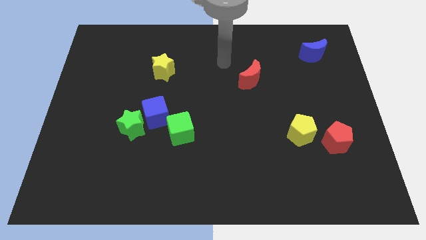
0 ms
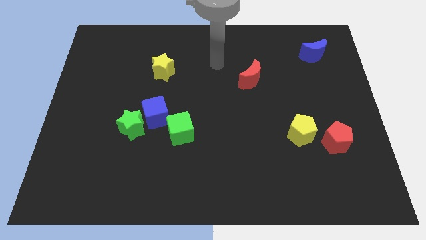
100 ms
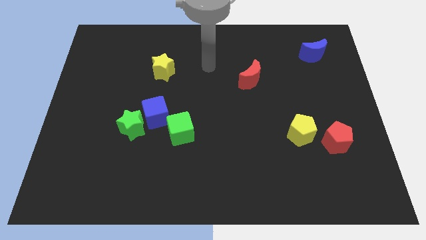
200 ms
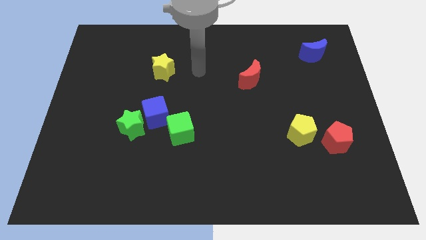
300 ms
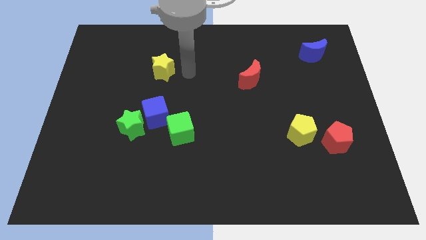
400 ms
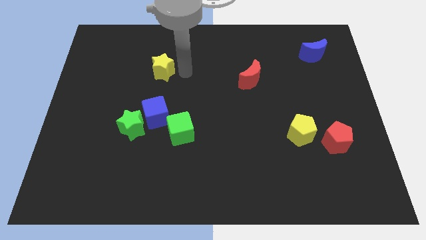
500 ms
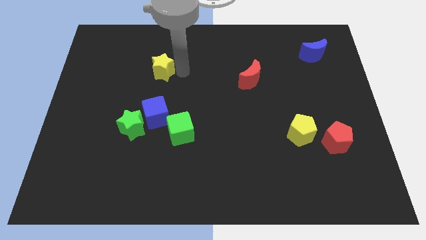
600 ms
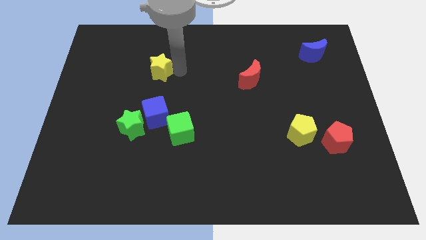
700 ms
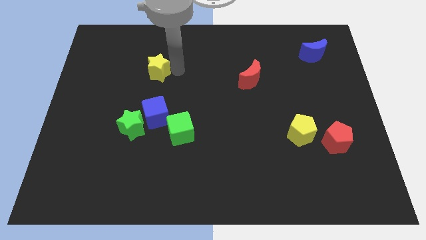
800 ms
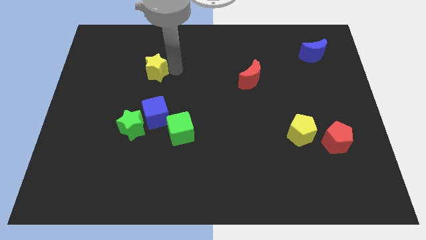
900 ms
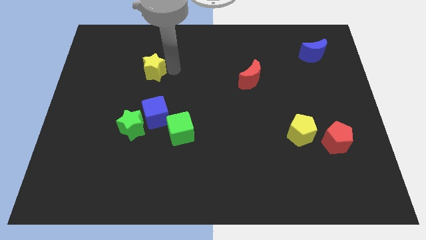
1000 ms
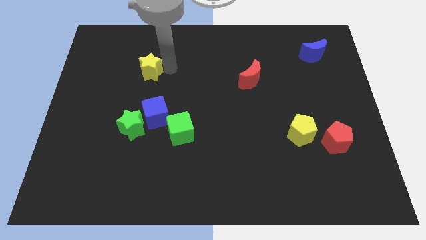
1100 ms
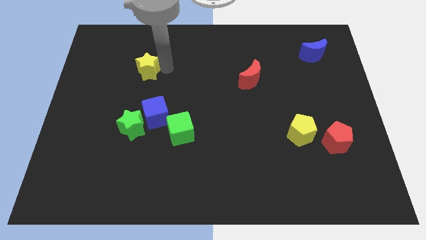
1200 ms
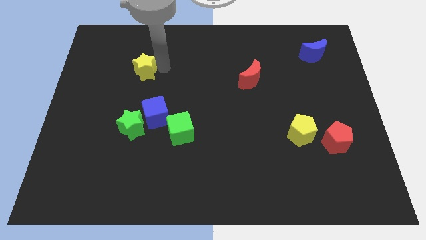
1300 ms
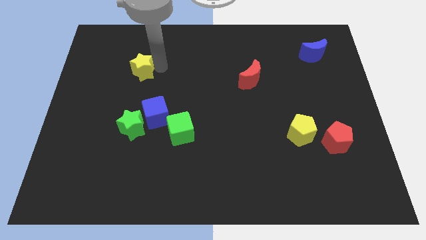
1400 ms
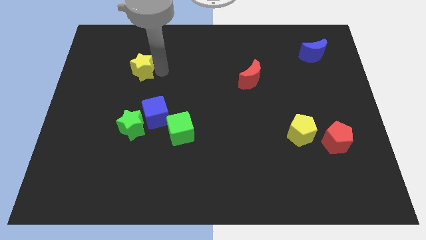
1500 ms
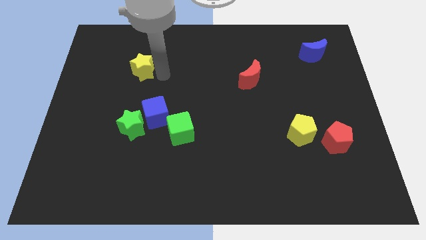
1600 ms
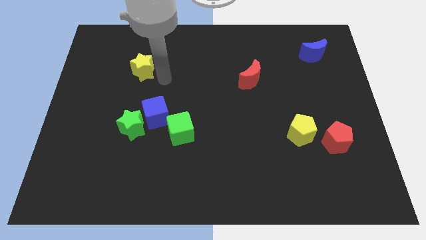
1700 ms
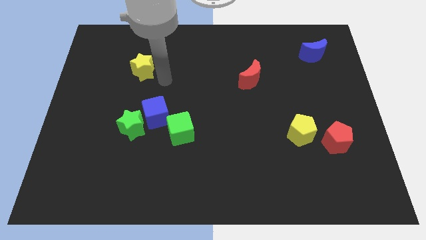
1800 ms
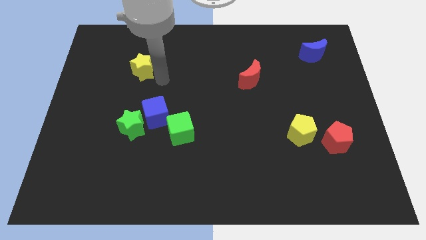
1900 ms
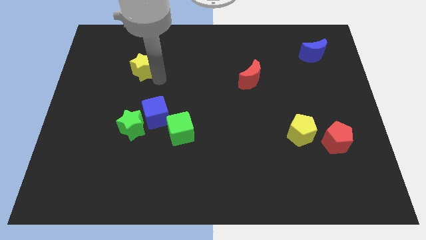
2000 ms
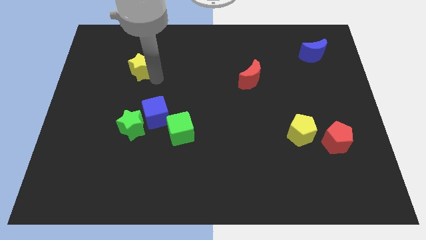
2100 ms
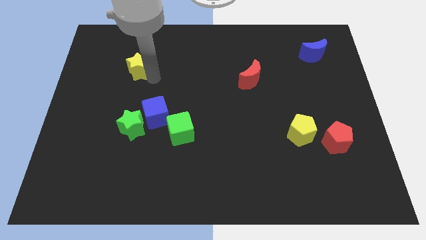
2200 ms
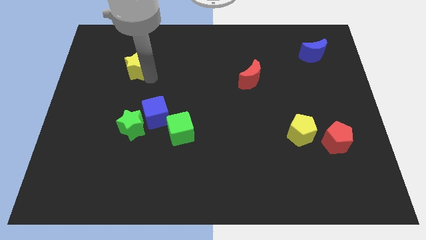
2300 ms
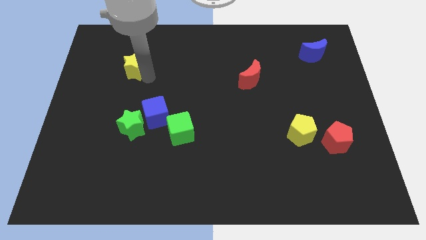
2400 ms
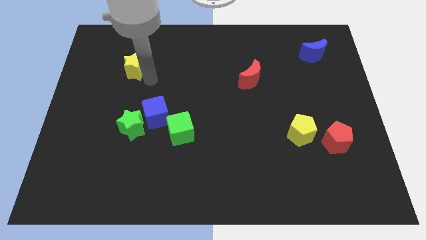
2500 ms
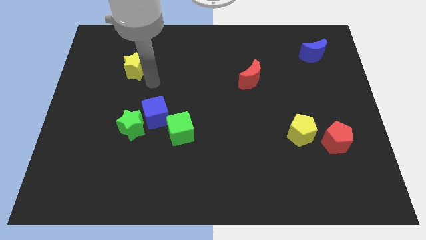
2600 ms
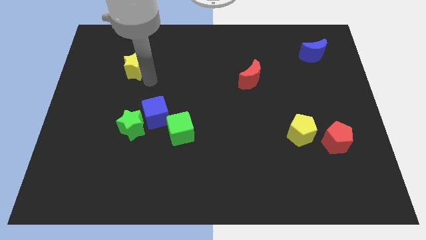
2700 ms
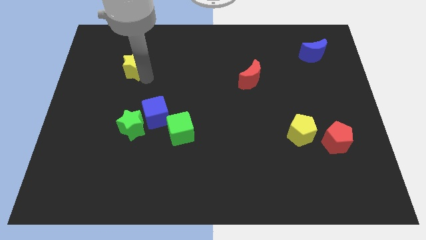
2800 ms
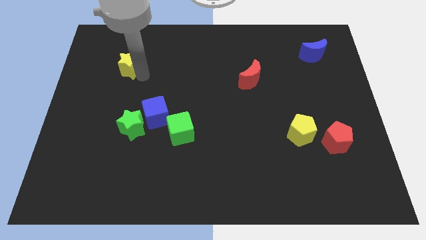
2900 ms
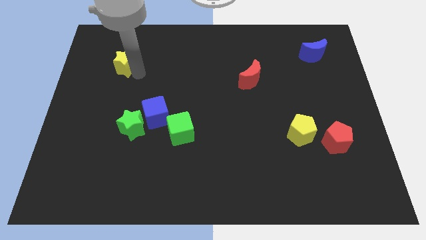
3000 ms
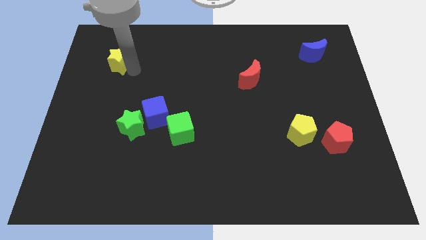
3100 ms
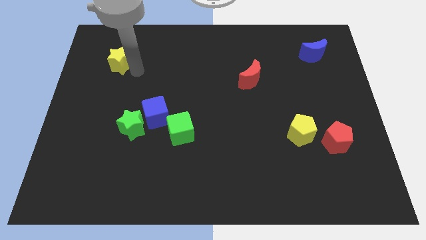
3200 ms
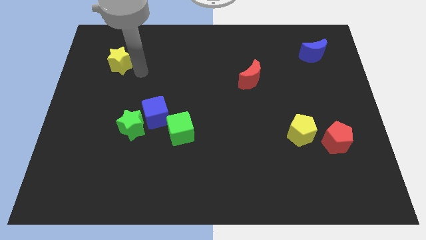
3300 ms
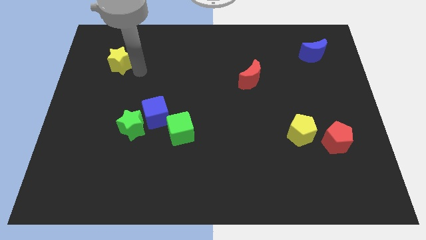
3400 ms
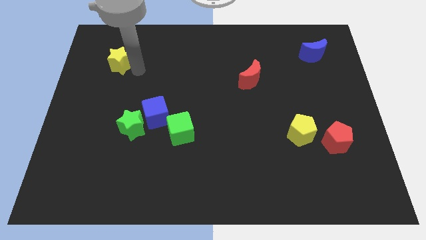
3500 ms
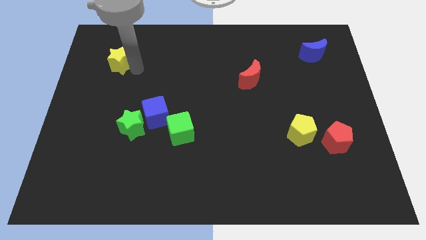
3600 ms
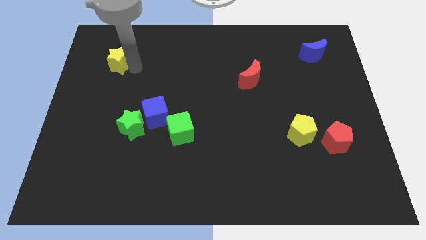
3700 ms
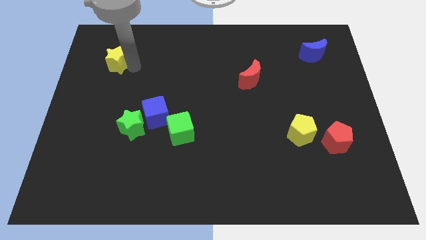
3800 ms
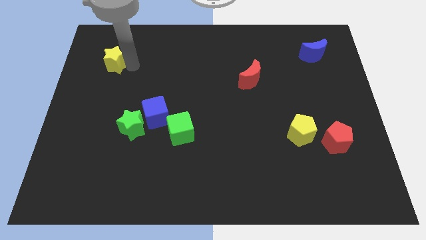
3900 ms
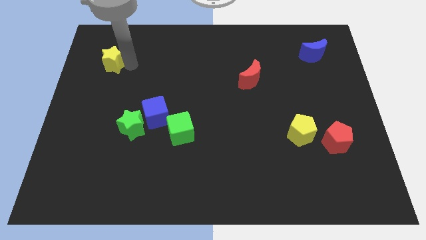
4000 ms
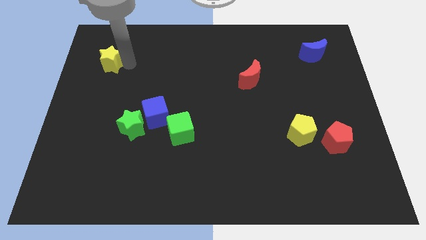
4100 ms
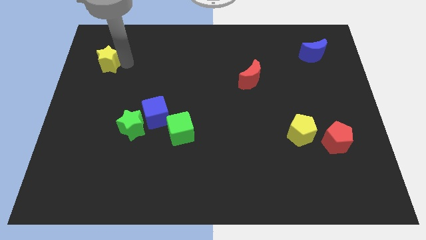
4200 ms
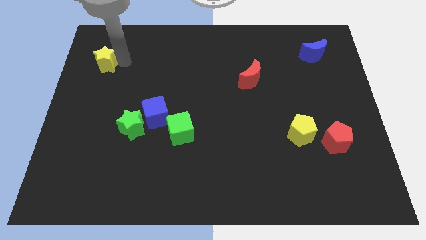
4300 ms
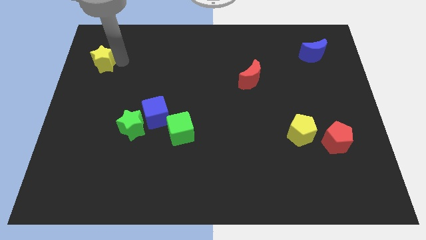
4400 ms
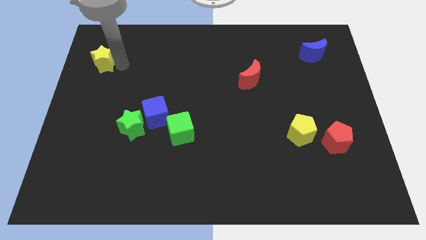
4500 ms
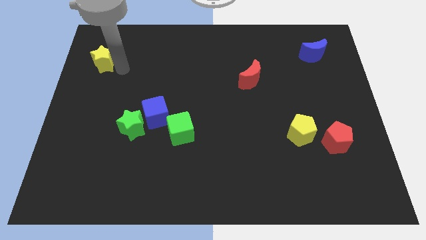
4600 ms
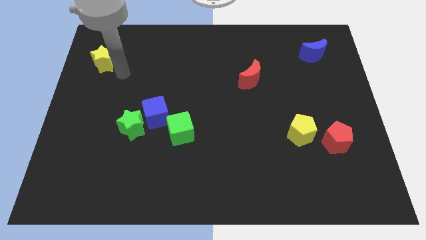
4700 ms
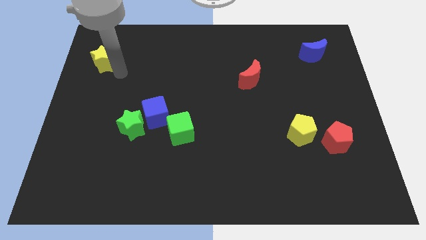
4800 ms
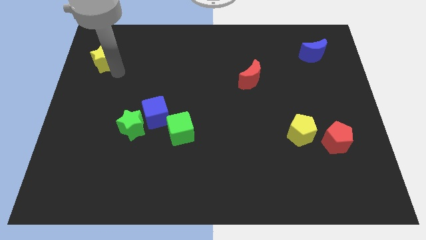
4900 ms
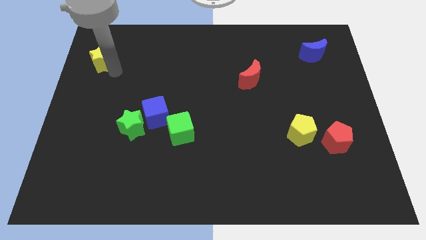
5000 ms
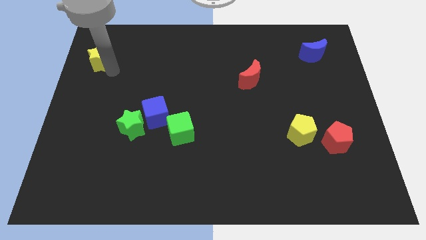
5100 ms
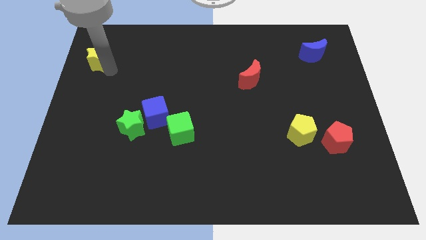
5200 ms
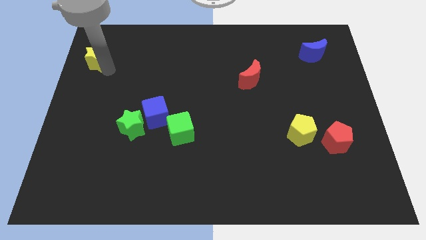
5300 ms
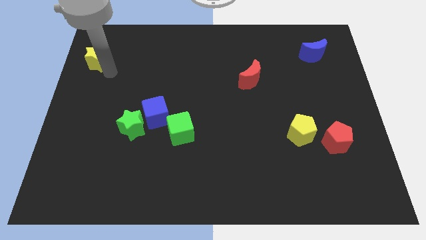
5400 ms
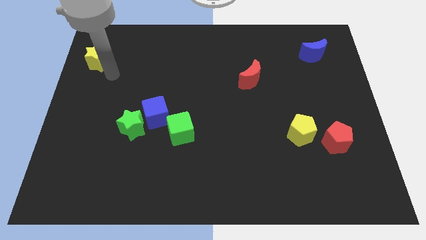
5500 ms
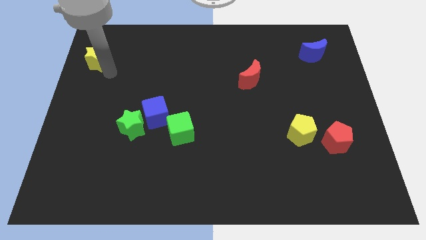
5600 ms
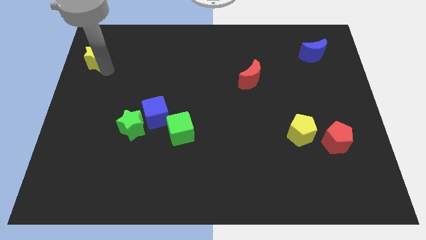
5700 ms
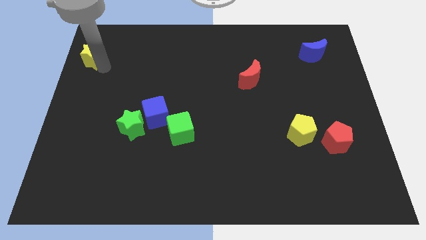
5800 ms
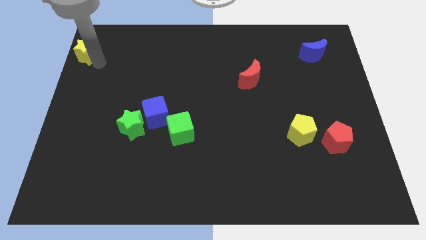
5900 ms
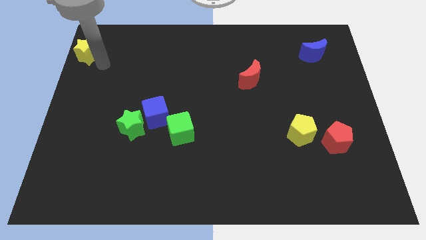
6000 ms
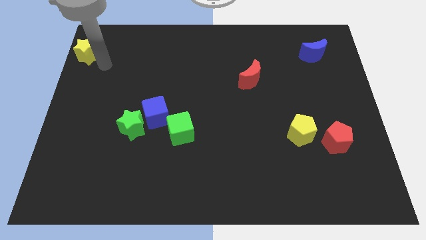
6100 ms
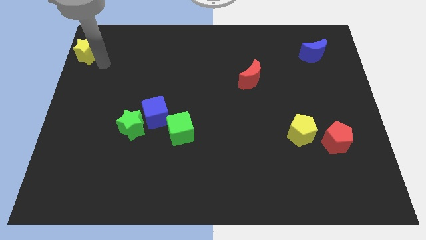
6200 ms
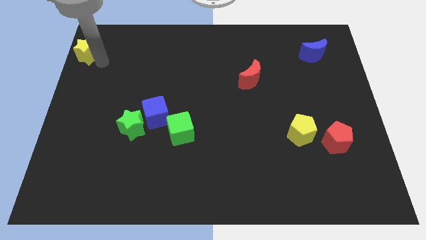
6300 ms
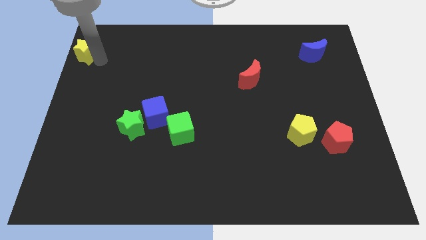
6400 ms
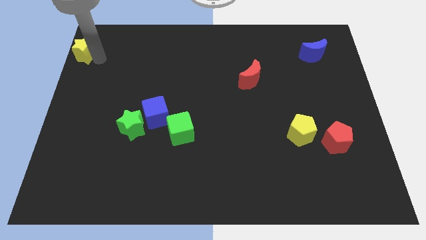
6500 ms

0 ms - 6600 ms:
put the yellow star to the top left corner
